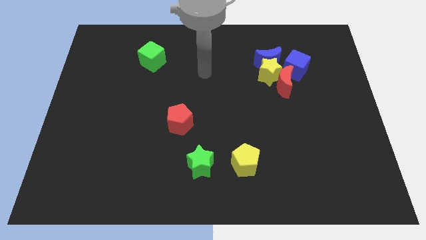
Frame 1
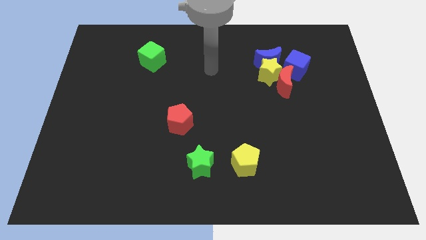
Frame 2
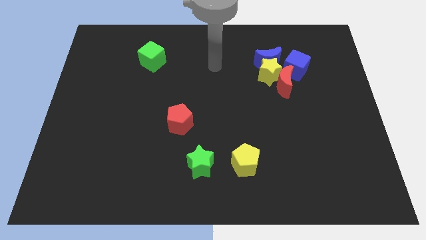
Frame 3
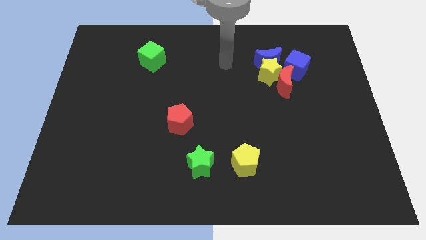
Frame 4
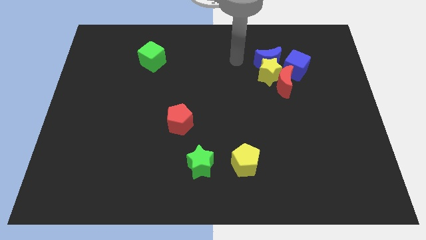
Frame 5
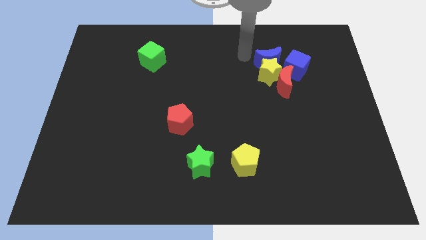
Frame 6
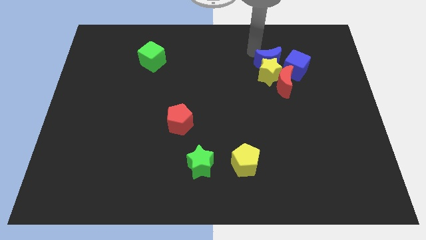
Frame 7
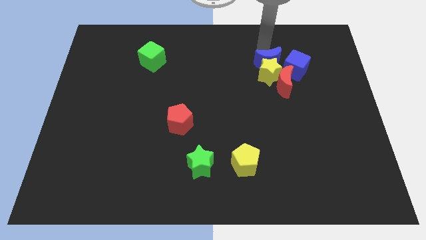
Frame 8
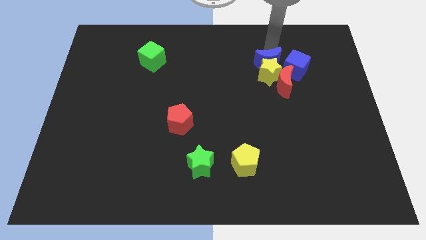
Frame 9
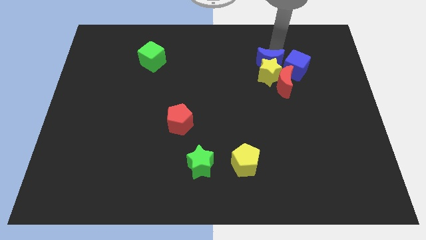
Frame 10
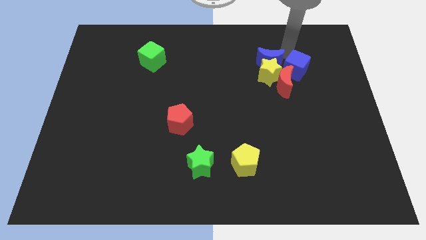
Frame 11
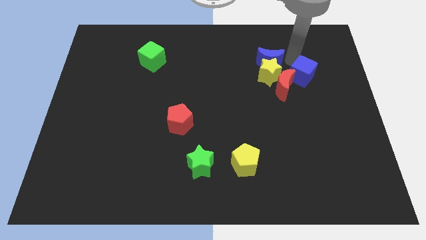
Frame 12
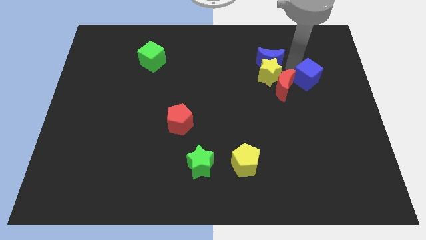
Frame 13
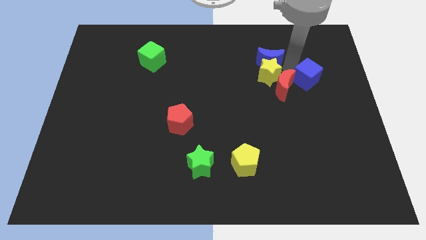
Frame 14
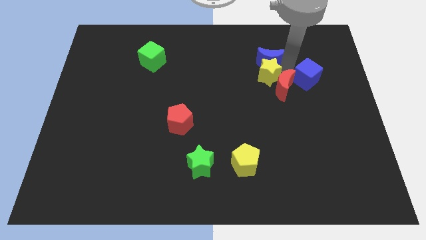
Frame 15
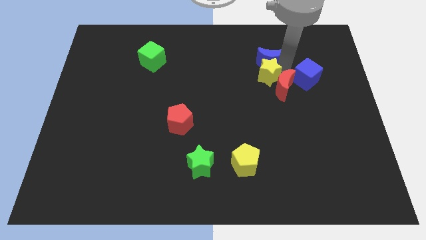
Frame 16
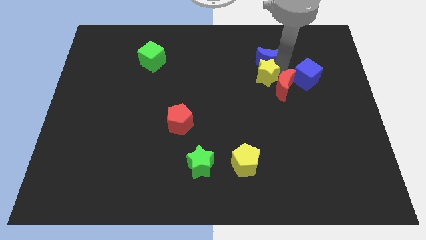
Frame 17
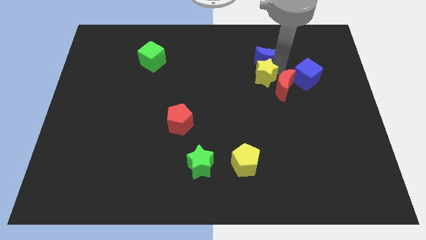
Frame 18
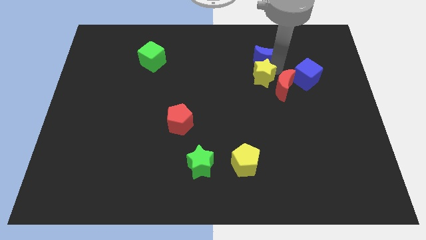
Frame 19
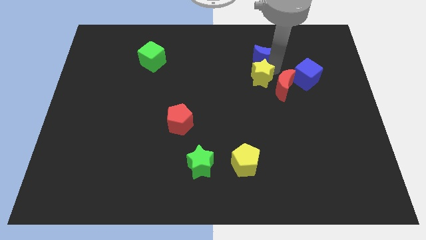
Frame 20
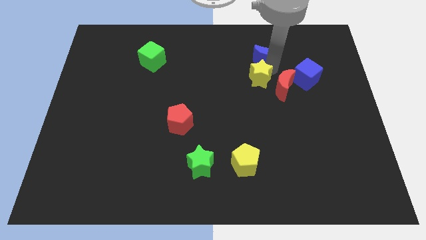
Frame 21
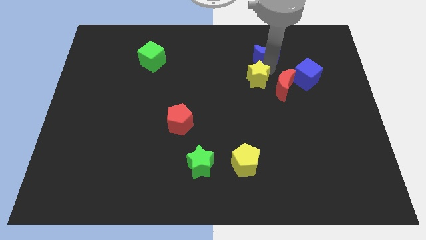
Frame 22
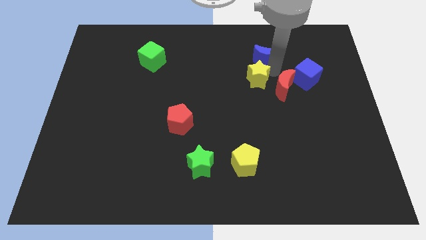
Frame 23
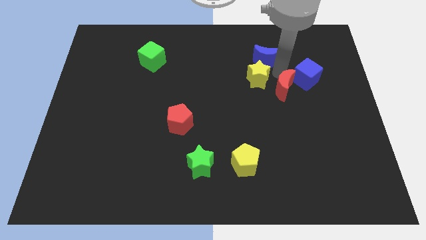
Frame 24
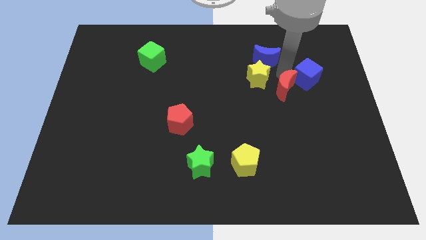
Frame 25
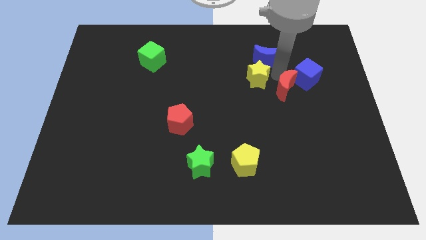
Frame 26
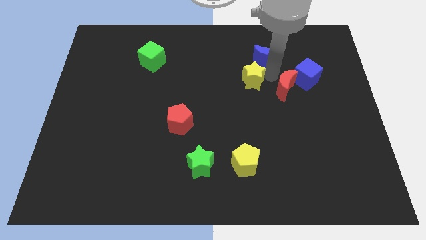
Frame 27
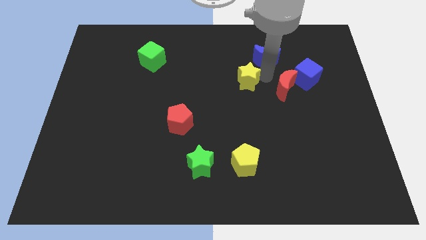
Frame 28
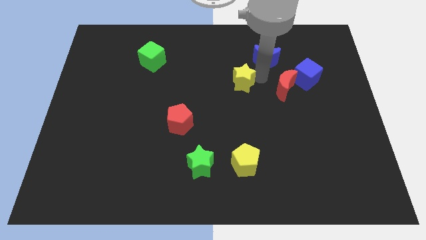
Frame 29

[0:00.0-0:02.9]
move the yellow star away from the group

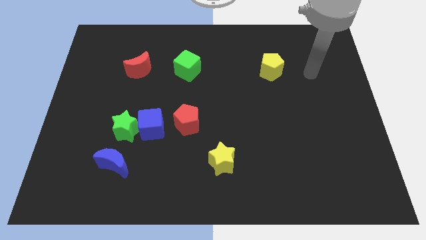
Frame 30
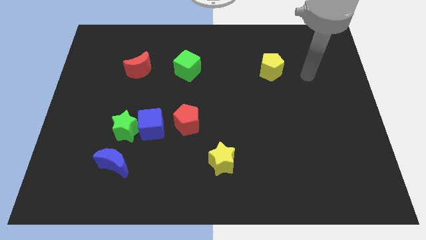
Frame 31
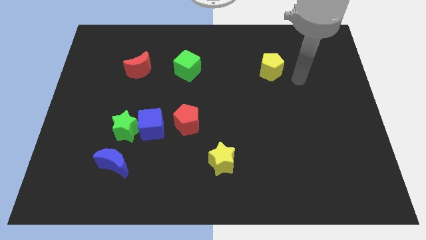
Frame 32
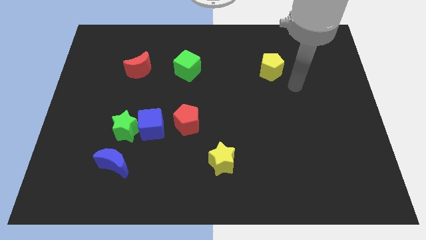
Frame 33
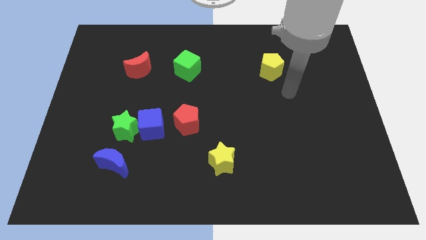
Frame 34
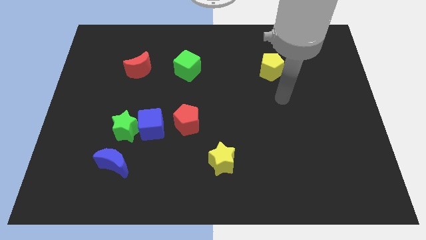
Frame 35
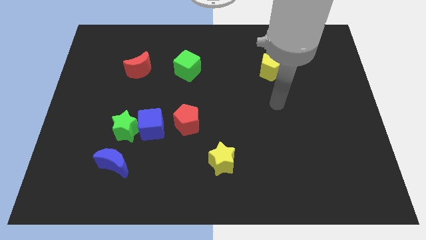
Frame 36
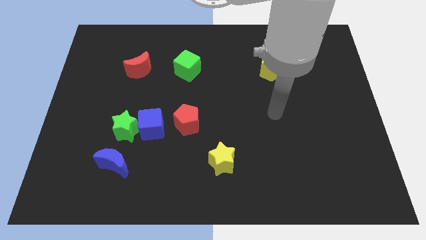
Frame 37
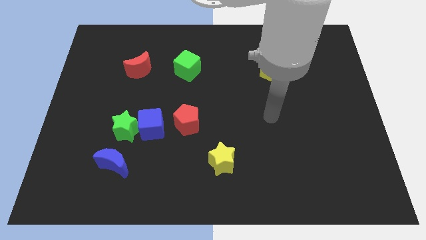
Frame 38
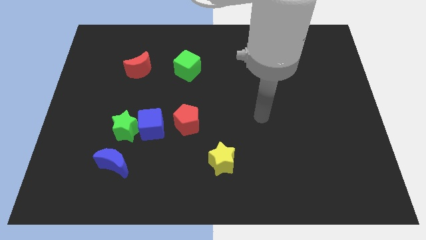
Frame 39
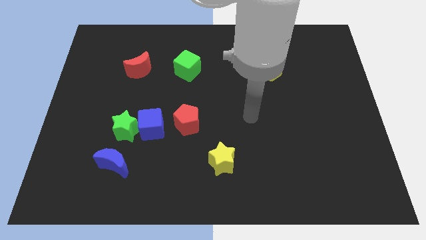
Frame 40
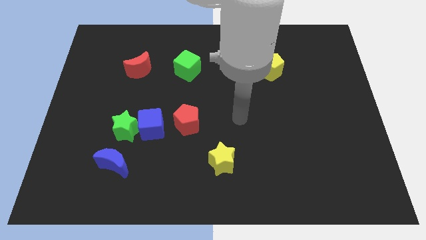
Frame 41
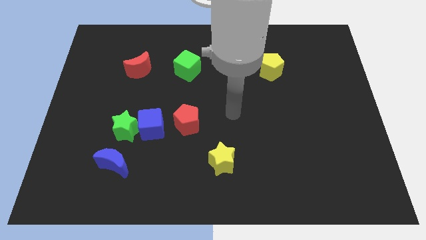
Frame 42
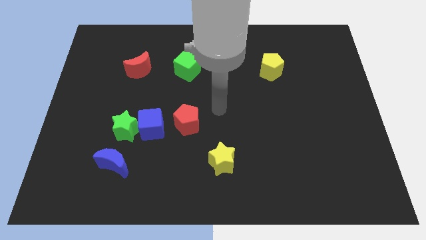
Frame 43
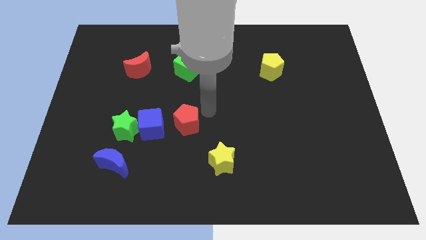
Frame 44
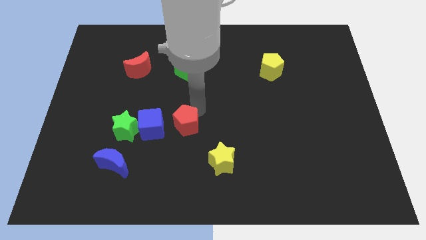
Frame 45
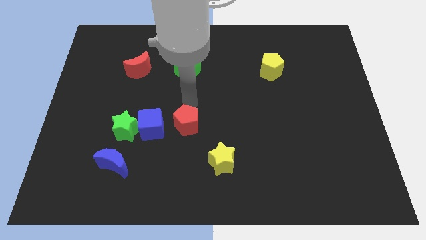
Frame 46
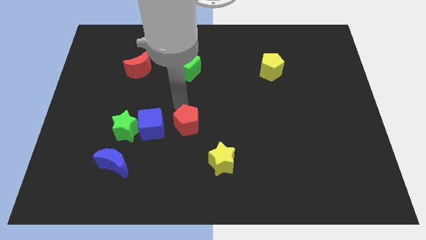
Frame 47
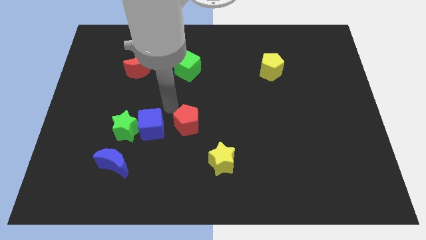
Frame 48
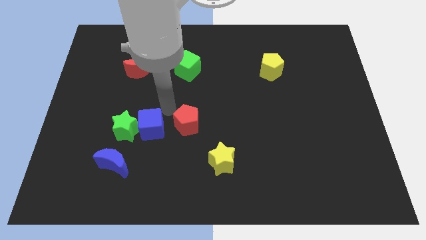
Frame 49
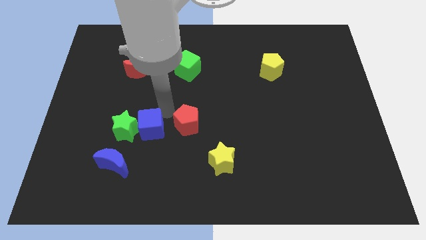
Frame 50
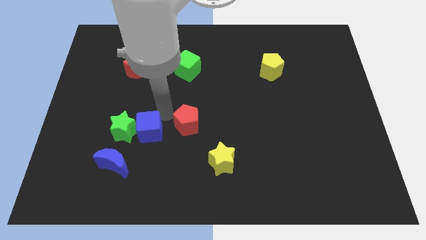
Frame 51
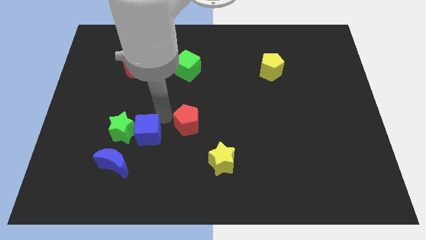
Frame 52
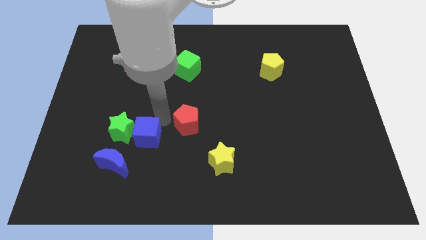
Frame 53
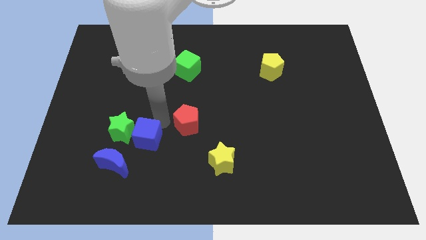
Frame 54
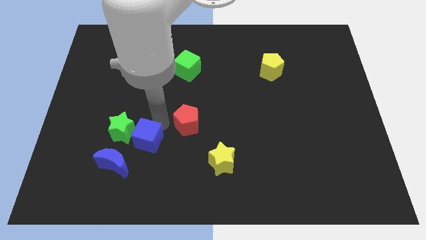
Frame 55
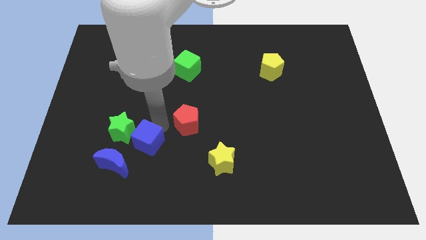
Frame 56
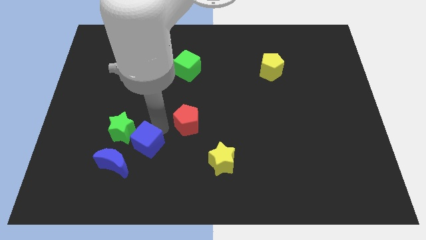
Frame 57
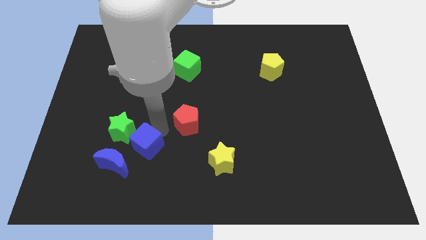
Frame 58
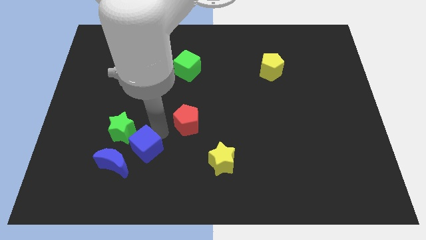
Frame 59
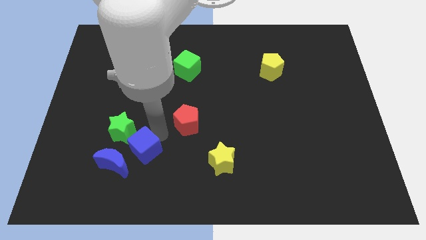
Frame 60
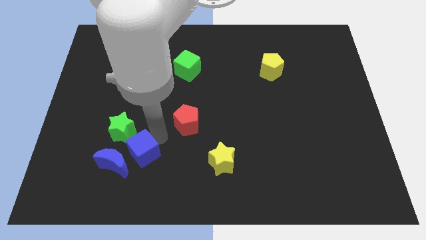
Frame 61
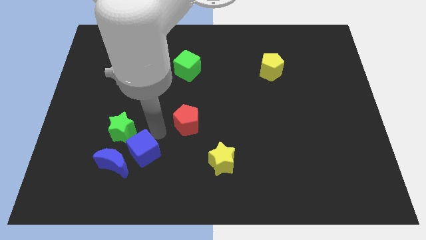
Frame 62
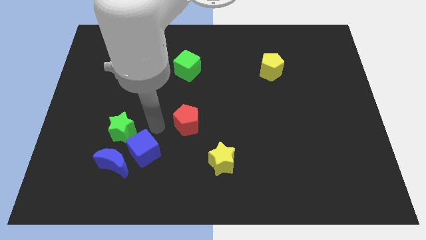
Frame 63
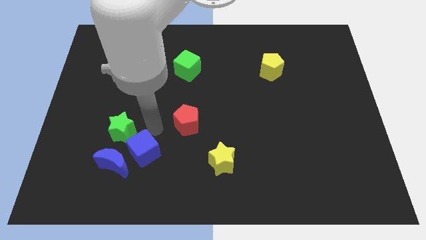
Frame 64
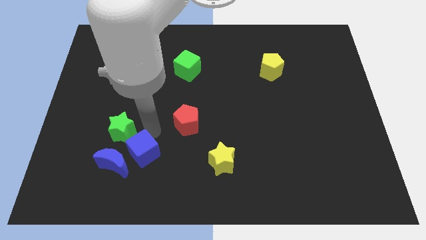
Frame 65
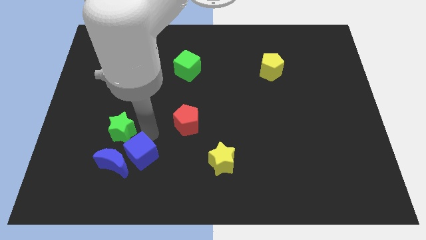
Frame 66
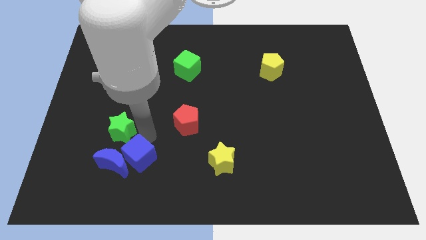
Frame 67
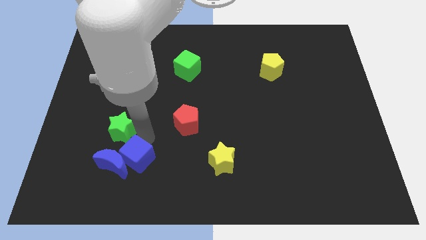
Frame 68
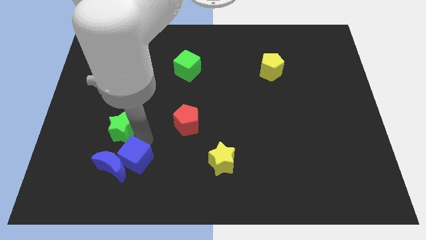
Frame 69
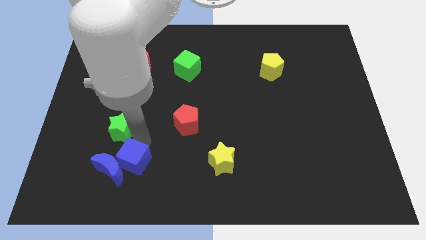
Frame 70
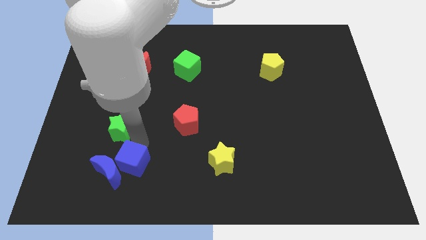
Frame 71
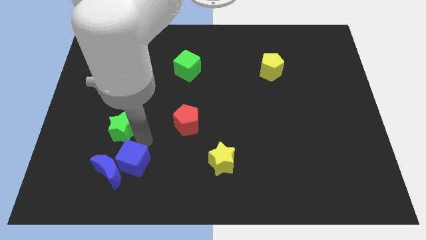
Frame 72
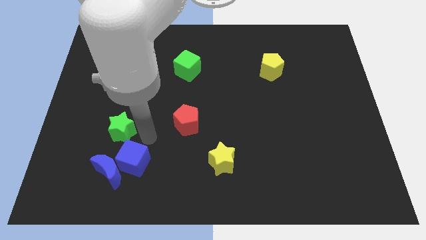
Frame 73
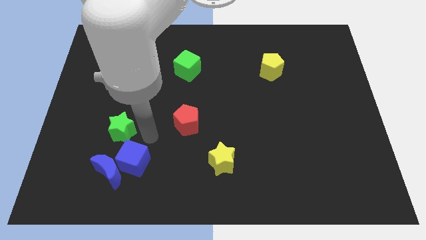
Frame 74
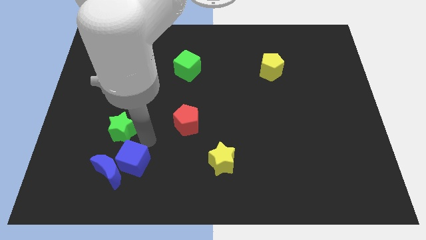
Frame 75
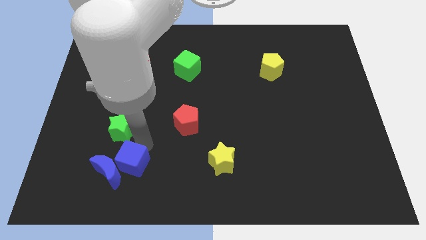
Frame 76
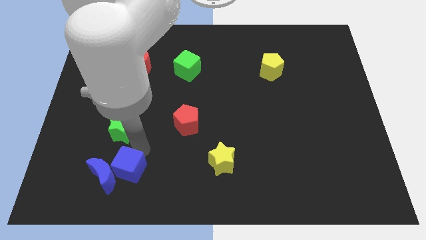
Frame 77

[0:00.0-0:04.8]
move the blue cube away from the green star and red pentagon

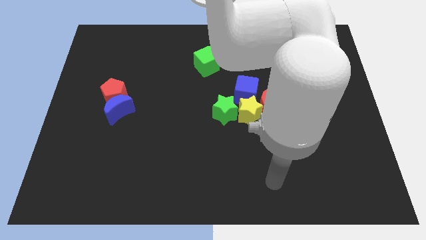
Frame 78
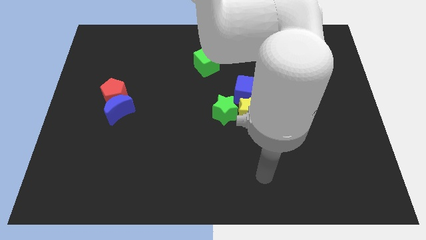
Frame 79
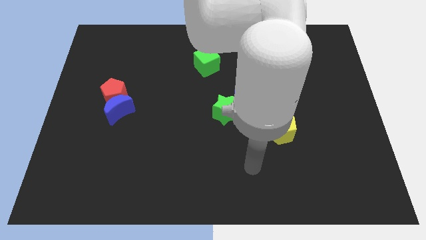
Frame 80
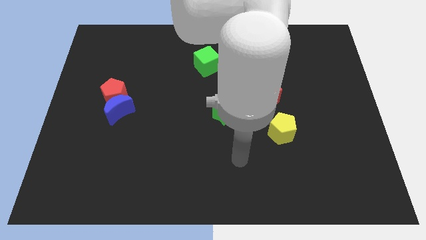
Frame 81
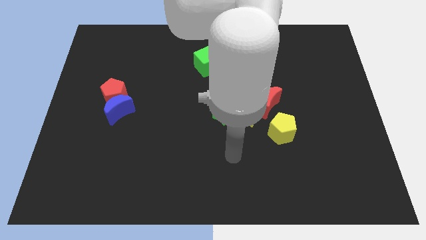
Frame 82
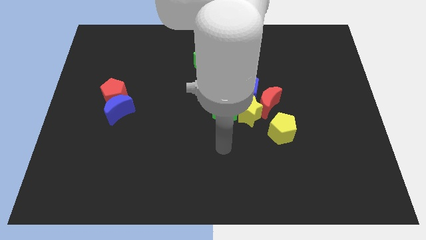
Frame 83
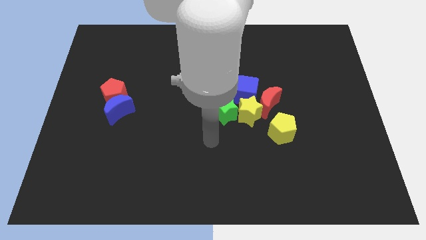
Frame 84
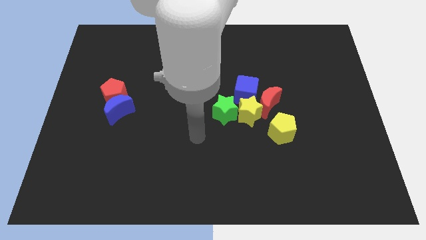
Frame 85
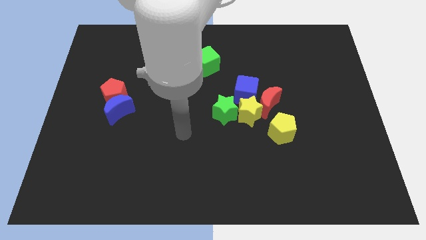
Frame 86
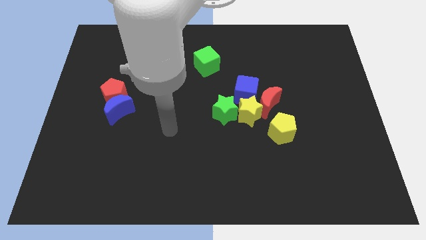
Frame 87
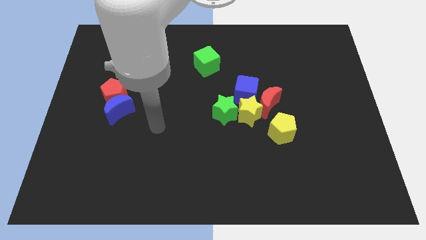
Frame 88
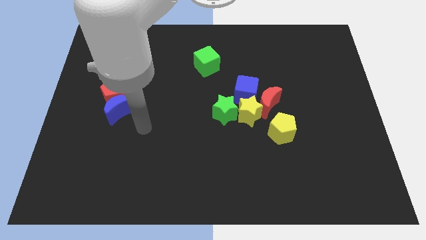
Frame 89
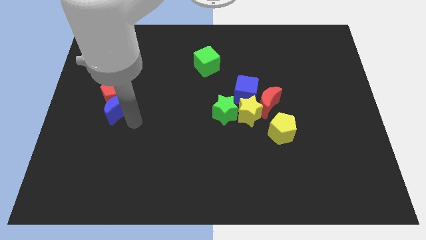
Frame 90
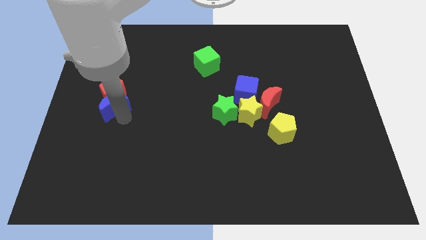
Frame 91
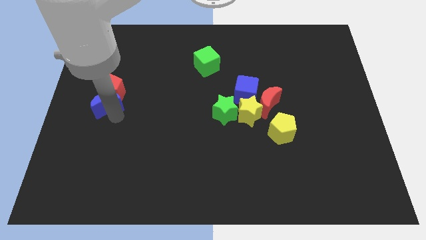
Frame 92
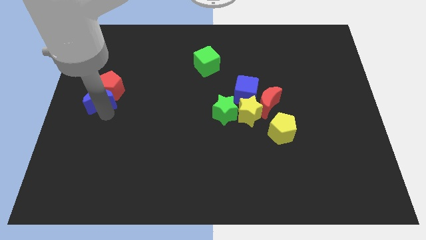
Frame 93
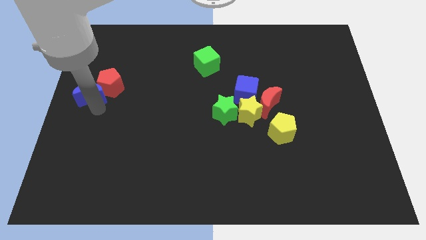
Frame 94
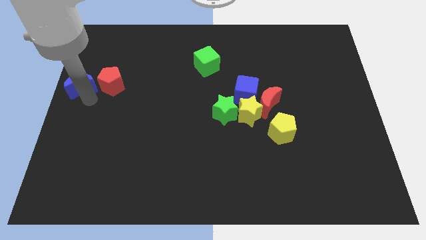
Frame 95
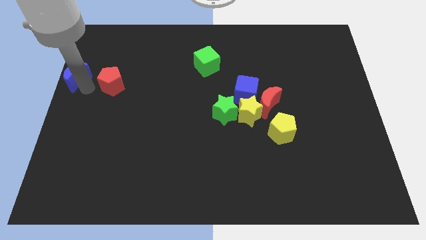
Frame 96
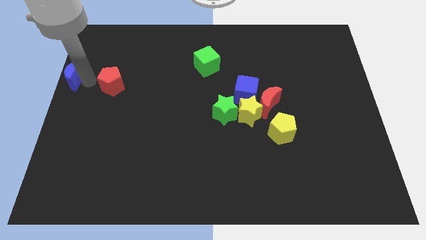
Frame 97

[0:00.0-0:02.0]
pull the red pentagon apart from the blue moon
